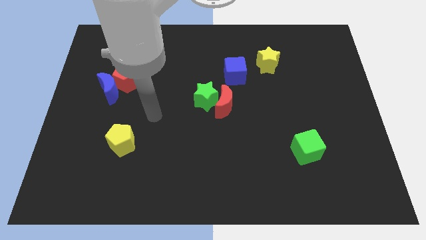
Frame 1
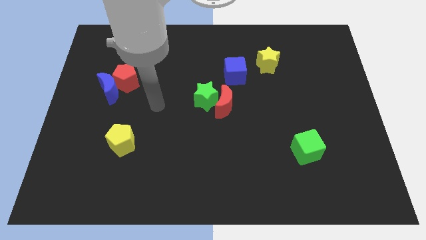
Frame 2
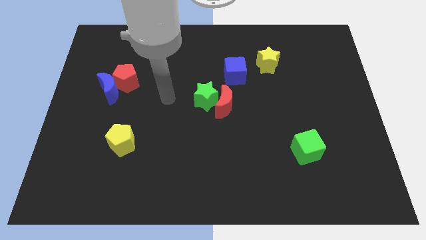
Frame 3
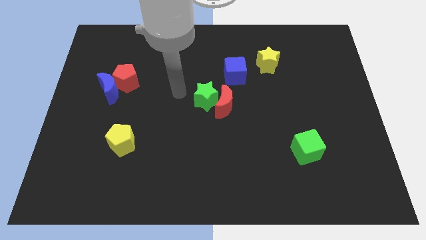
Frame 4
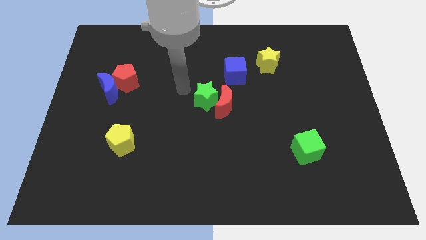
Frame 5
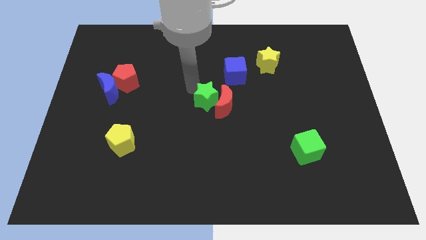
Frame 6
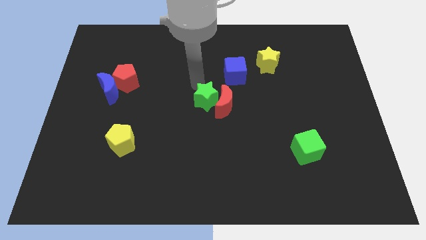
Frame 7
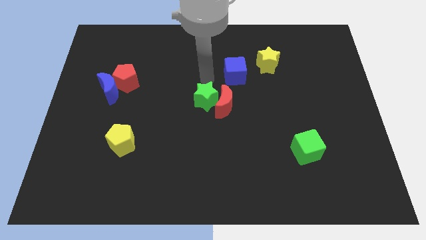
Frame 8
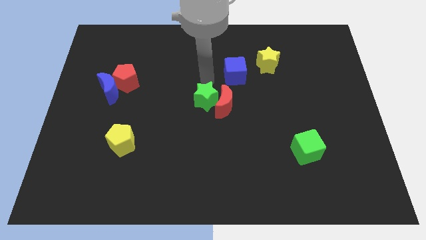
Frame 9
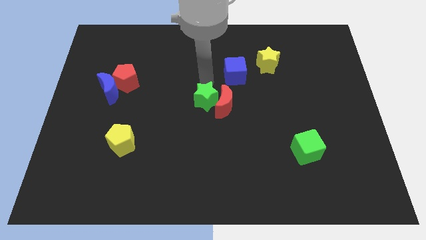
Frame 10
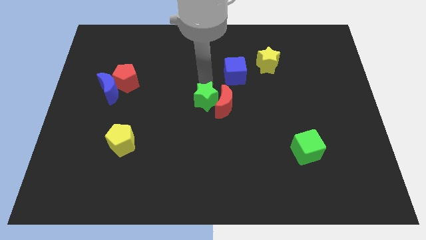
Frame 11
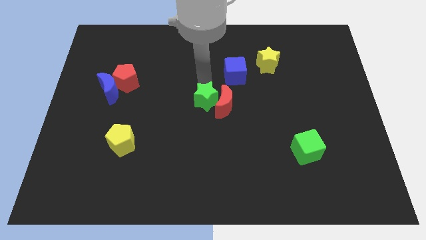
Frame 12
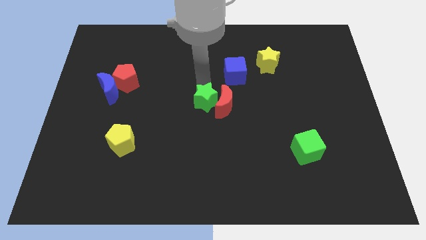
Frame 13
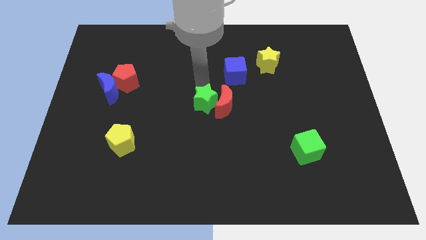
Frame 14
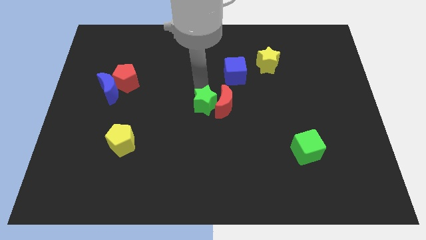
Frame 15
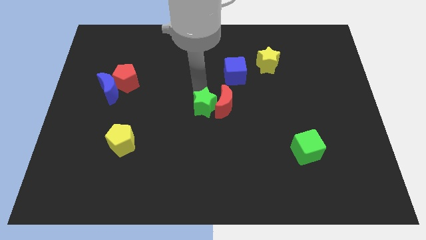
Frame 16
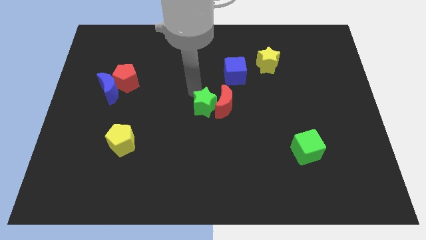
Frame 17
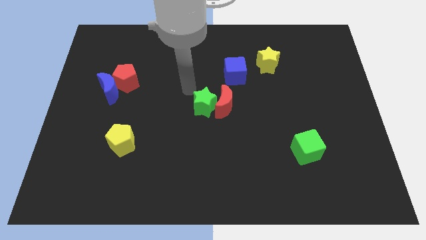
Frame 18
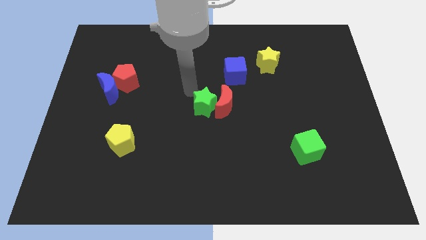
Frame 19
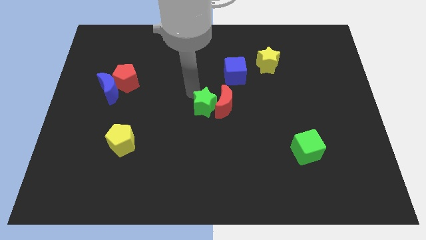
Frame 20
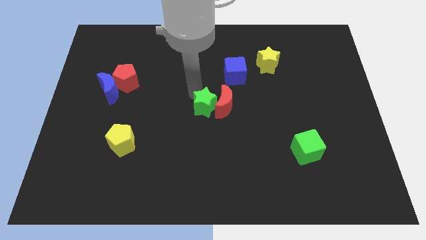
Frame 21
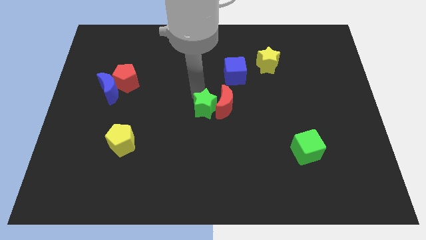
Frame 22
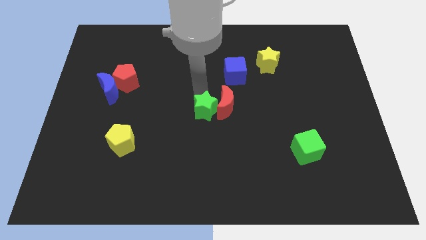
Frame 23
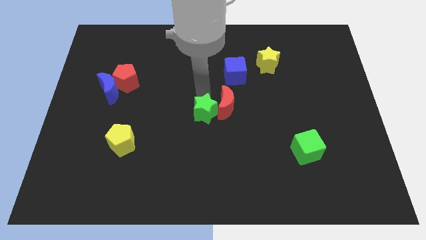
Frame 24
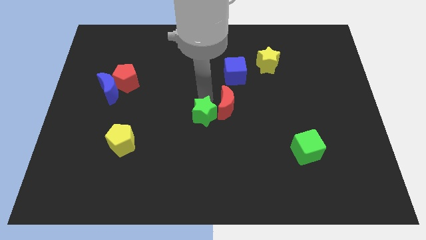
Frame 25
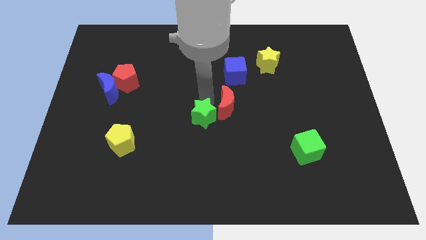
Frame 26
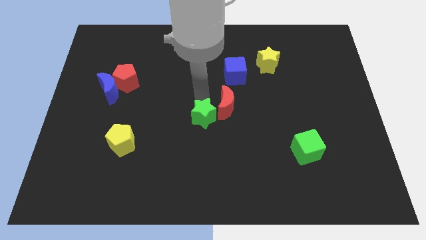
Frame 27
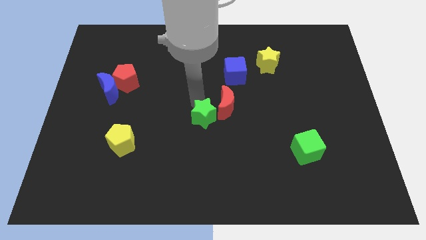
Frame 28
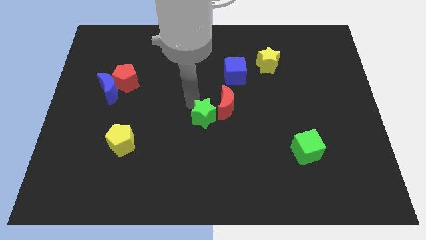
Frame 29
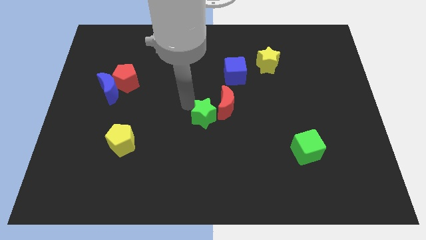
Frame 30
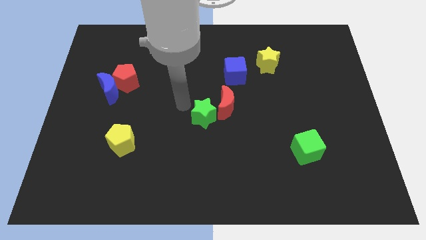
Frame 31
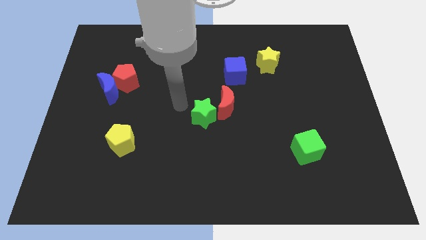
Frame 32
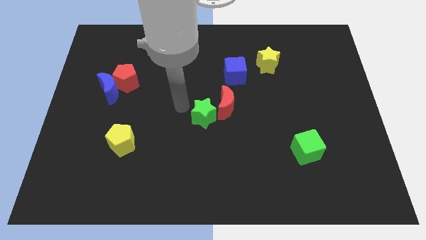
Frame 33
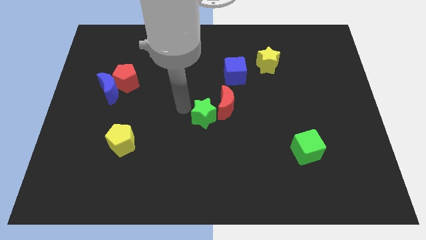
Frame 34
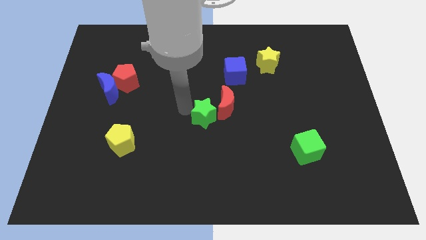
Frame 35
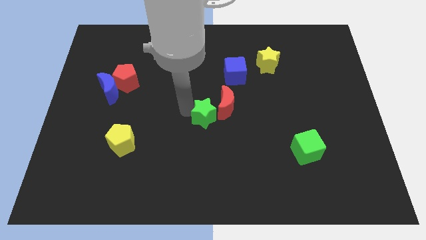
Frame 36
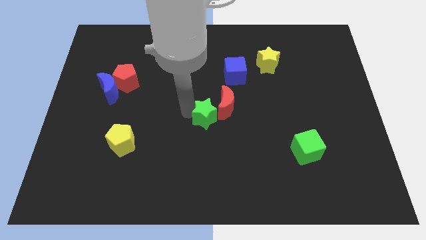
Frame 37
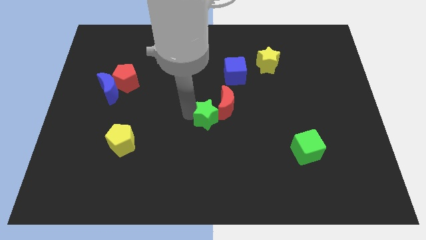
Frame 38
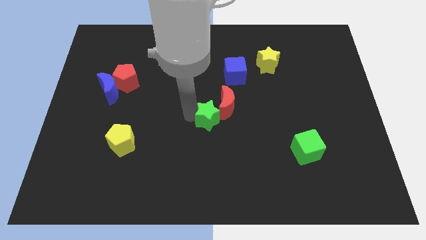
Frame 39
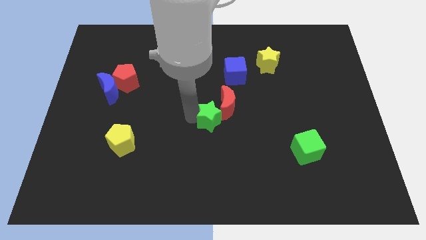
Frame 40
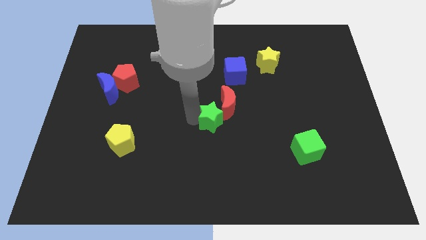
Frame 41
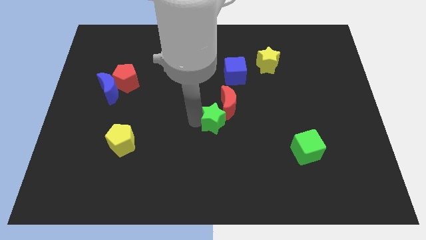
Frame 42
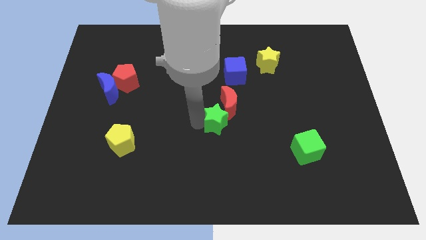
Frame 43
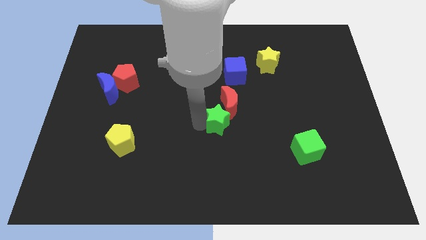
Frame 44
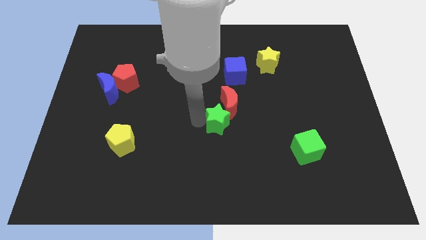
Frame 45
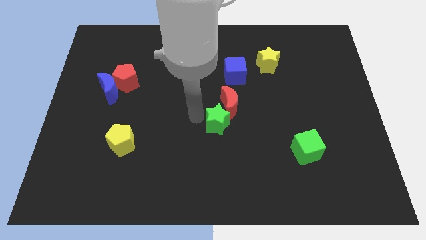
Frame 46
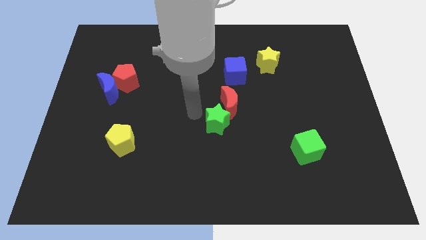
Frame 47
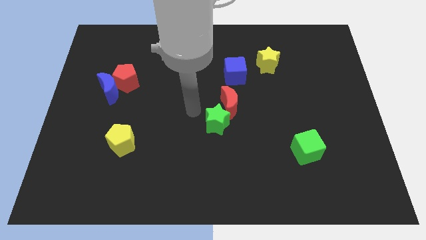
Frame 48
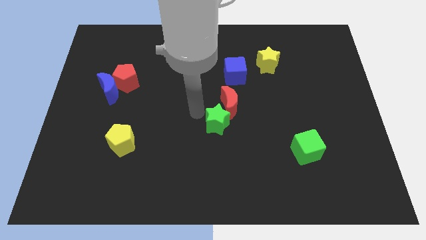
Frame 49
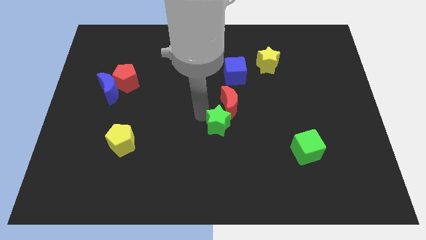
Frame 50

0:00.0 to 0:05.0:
slightly push the green star downwards and right diagonally

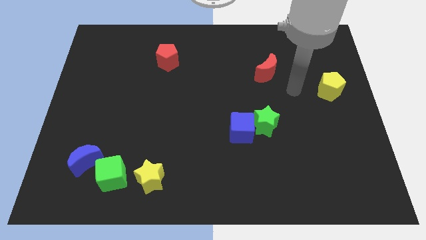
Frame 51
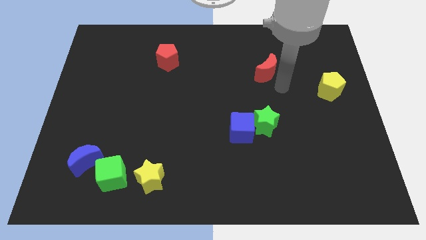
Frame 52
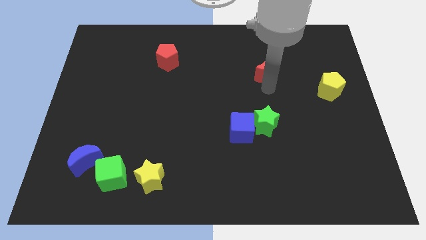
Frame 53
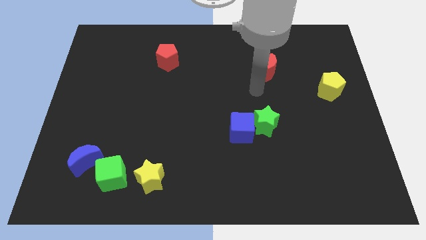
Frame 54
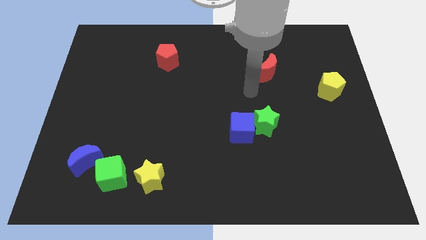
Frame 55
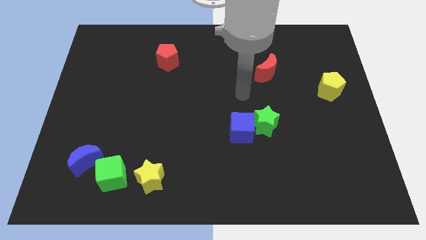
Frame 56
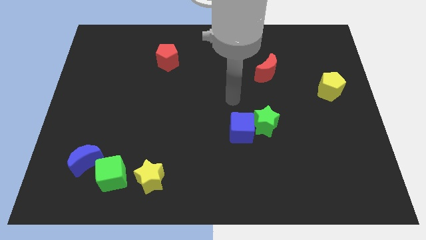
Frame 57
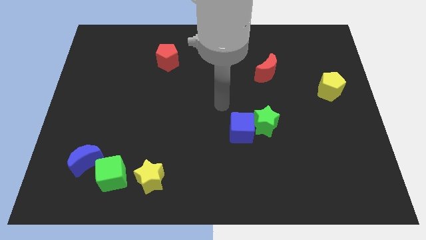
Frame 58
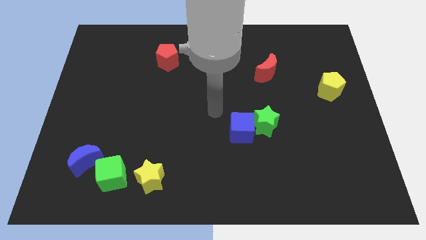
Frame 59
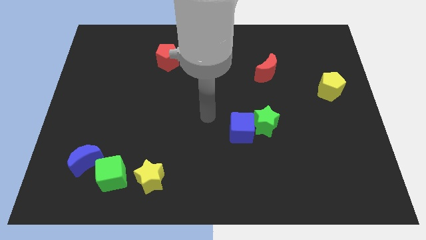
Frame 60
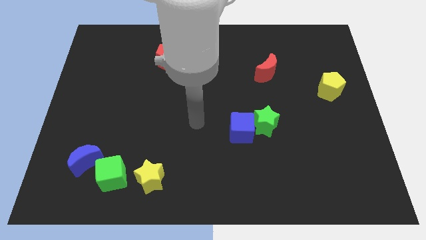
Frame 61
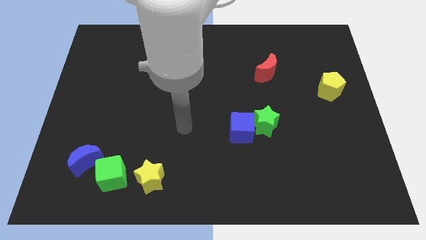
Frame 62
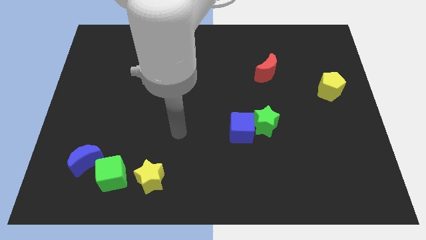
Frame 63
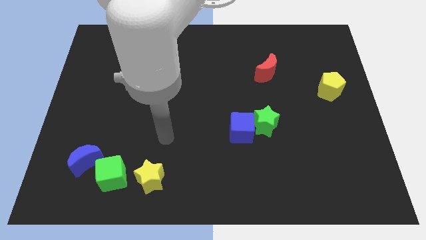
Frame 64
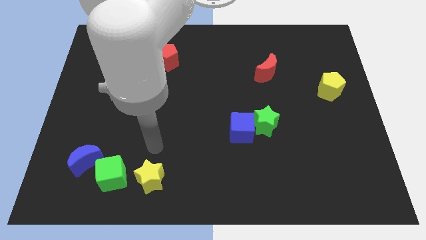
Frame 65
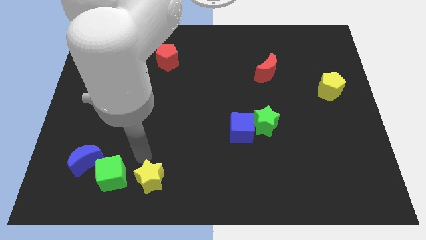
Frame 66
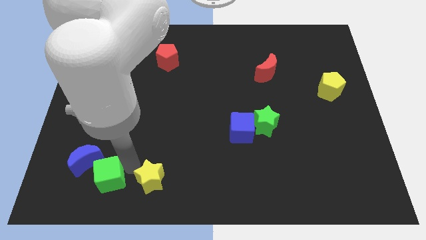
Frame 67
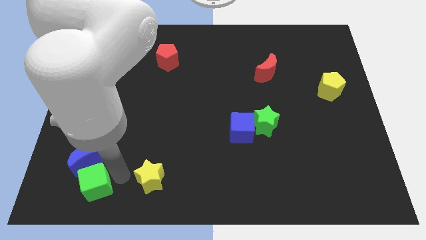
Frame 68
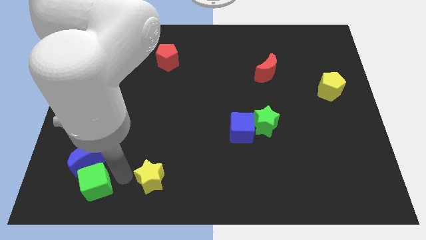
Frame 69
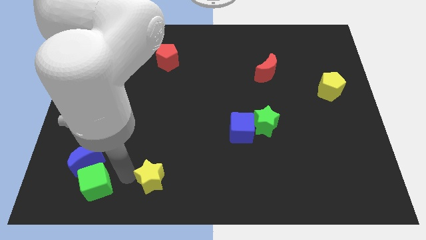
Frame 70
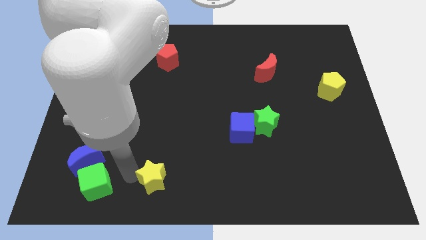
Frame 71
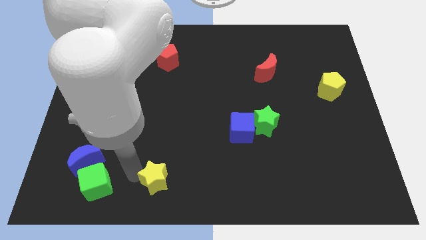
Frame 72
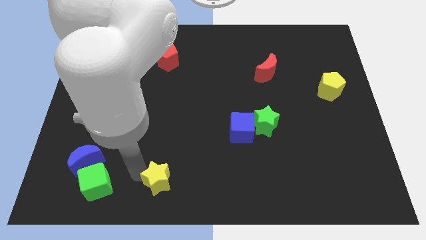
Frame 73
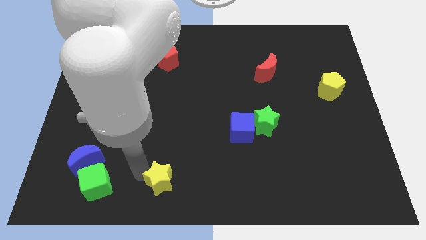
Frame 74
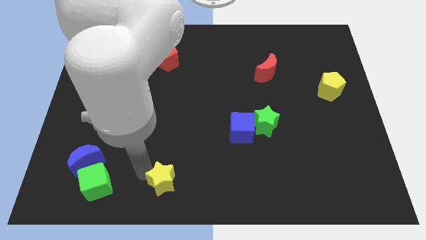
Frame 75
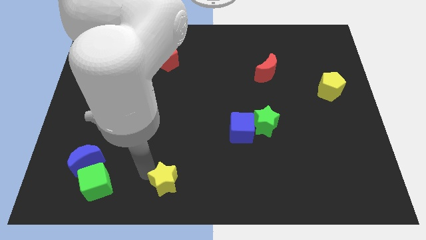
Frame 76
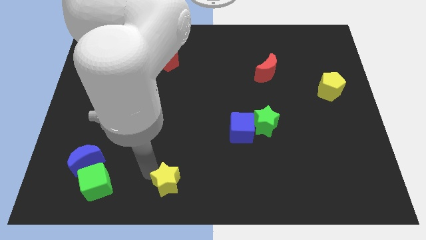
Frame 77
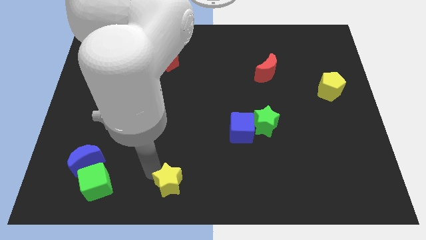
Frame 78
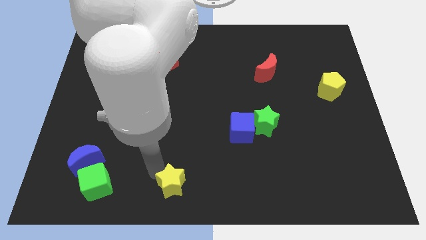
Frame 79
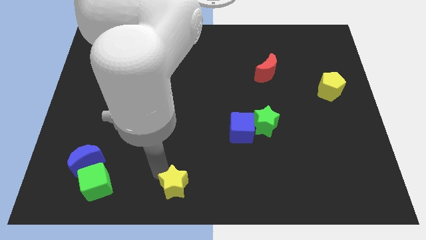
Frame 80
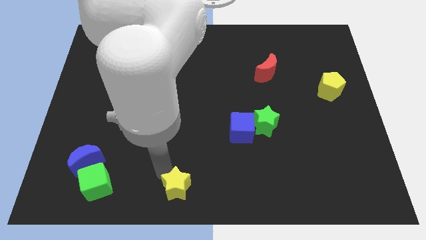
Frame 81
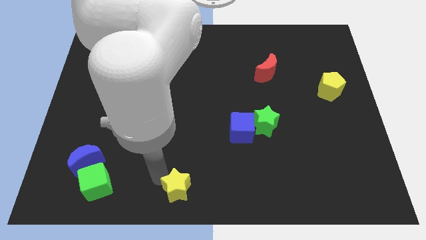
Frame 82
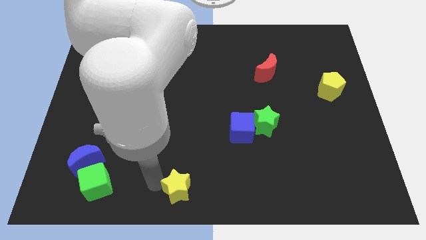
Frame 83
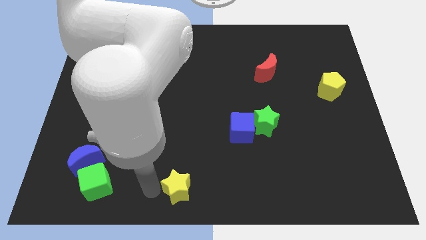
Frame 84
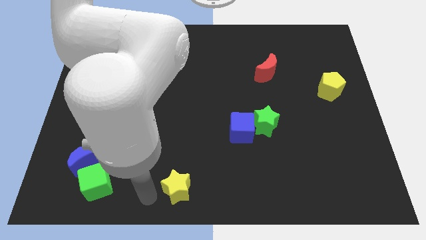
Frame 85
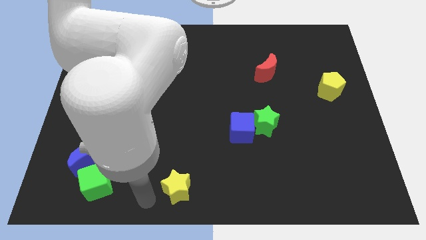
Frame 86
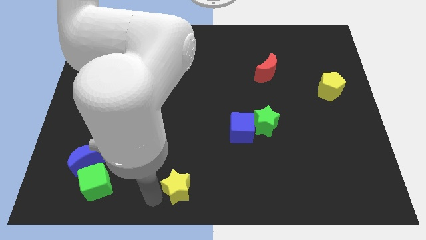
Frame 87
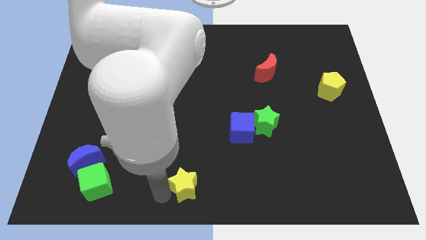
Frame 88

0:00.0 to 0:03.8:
slide the yellow star right a bit
